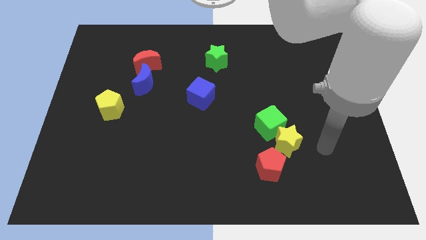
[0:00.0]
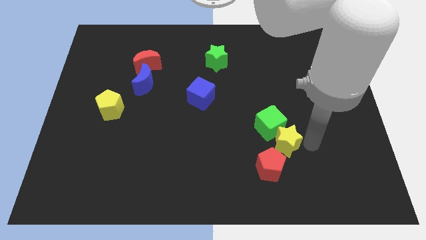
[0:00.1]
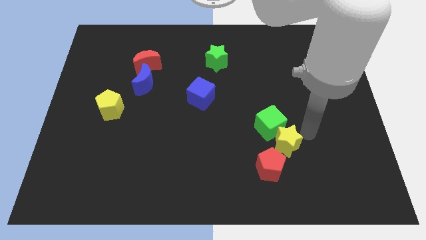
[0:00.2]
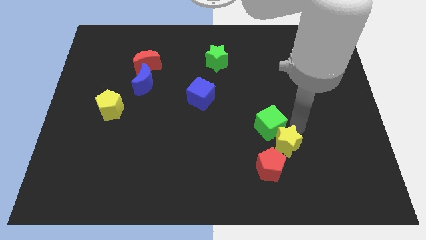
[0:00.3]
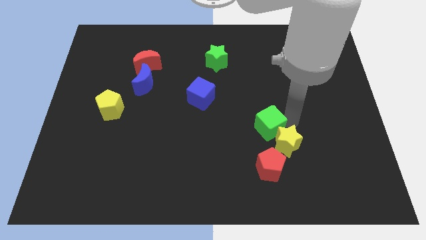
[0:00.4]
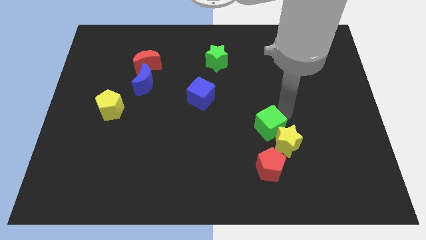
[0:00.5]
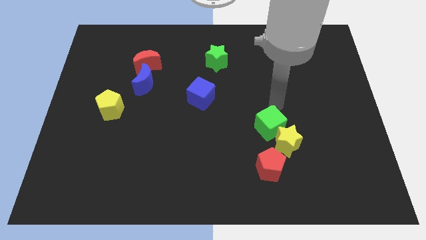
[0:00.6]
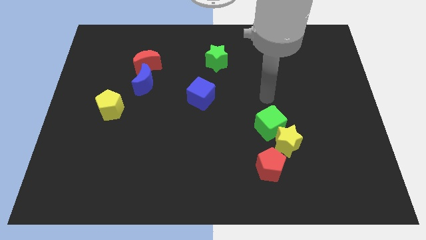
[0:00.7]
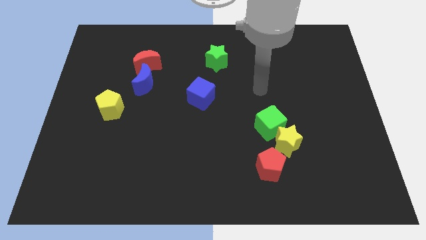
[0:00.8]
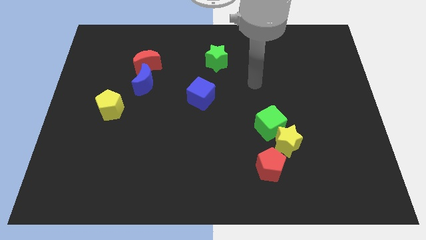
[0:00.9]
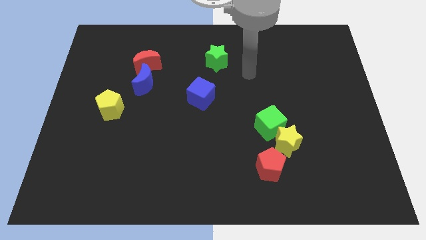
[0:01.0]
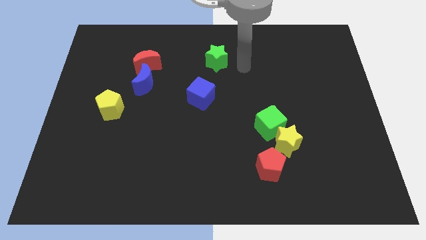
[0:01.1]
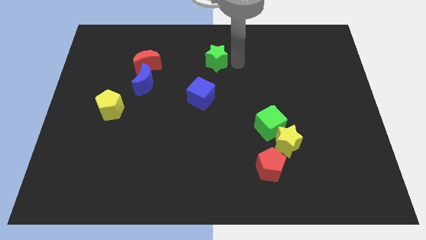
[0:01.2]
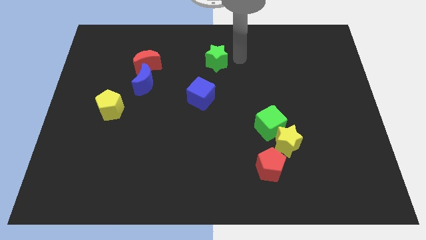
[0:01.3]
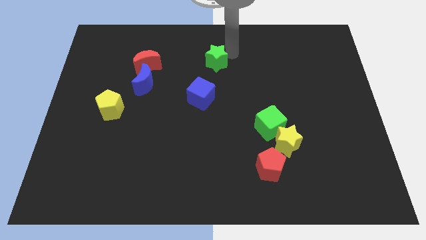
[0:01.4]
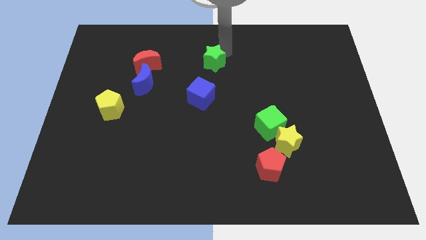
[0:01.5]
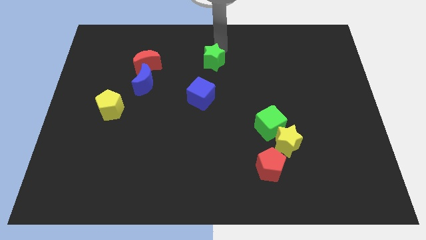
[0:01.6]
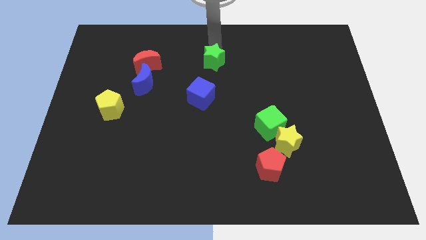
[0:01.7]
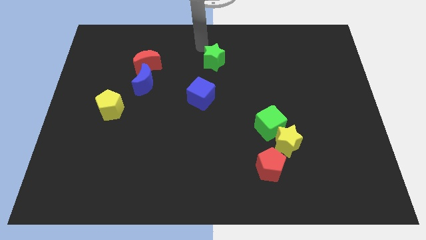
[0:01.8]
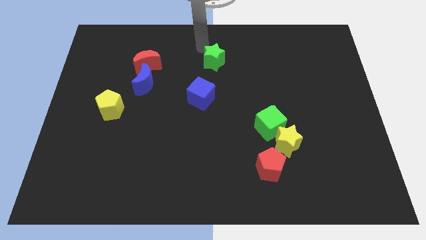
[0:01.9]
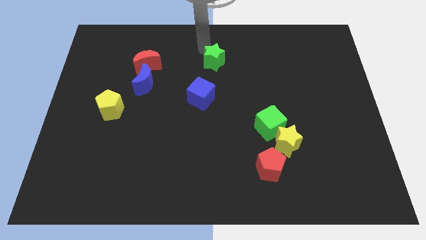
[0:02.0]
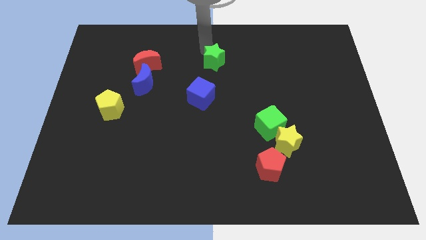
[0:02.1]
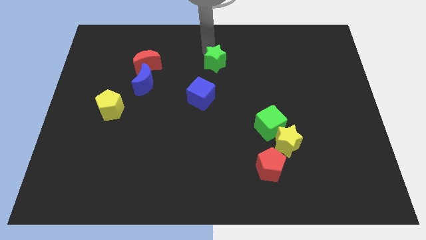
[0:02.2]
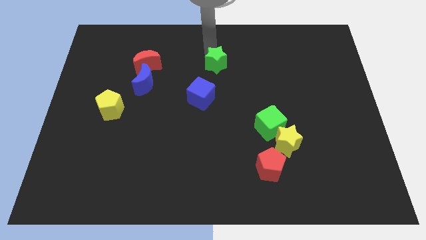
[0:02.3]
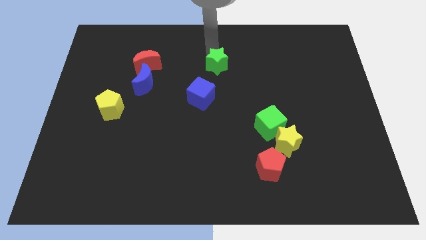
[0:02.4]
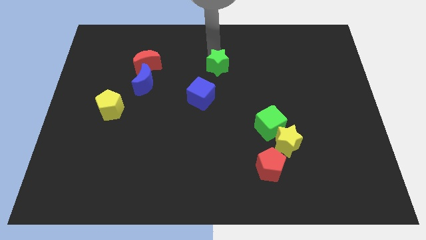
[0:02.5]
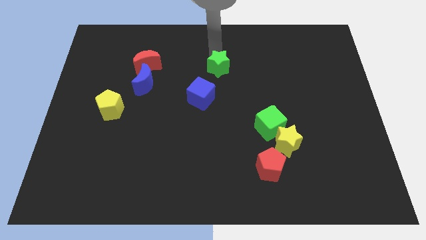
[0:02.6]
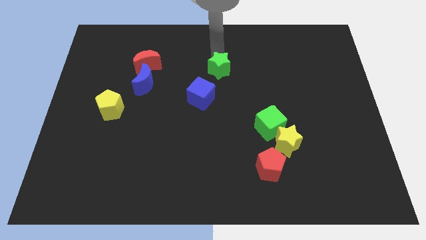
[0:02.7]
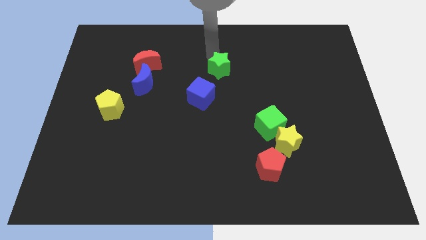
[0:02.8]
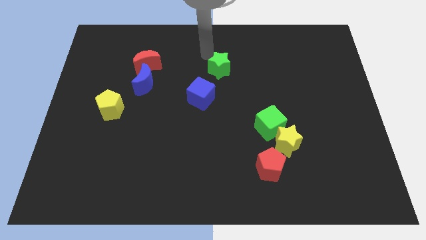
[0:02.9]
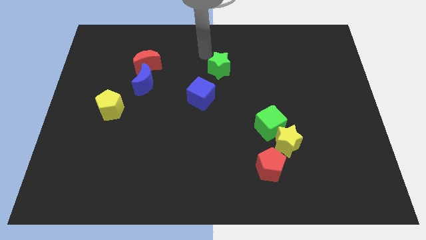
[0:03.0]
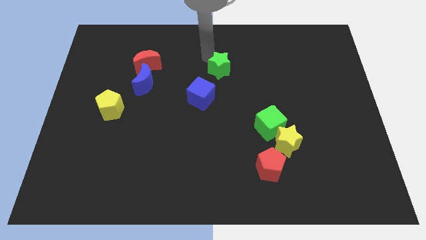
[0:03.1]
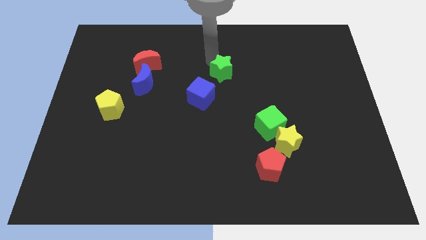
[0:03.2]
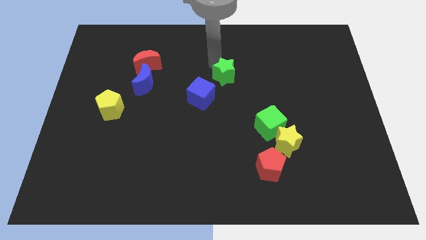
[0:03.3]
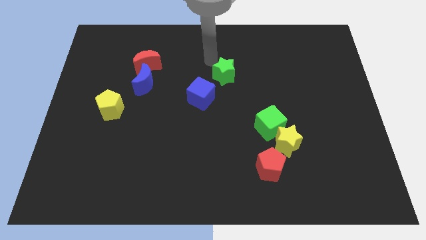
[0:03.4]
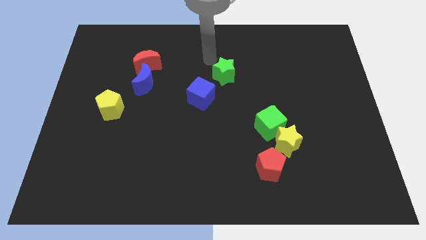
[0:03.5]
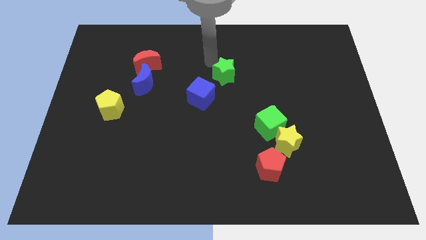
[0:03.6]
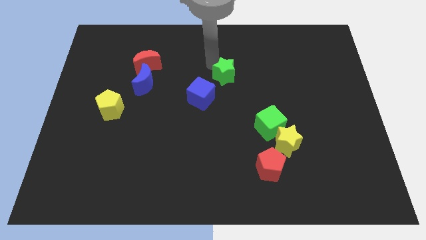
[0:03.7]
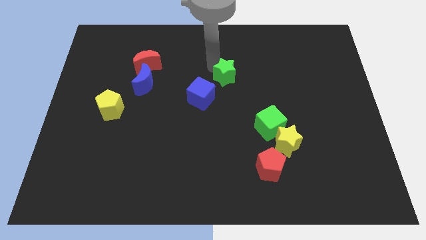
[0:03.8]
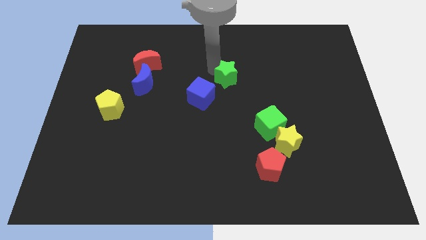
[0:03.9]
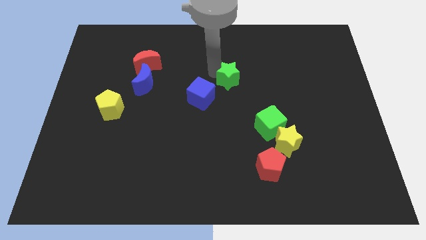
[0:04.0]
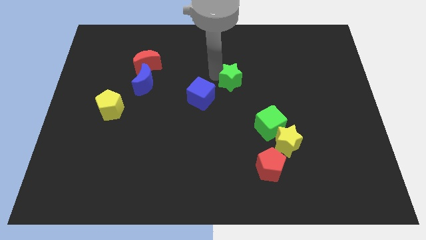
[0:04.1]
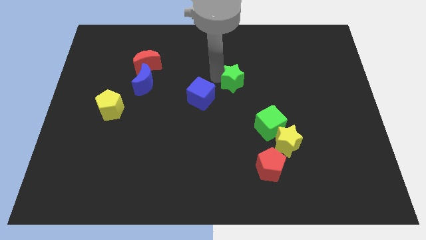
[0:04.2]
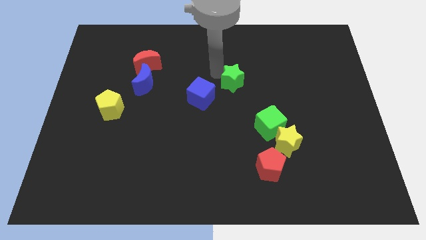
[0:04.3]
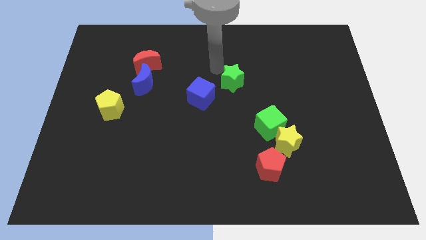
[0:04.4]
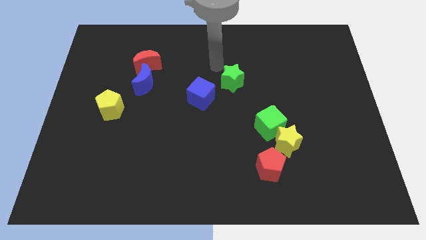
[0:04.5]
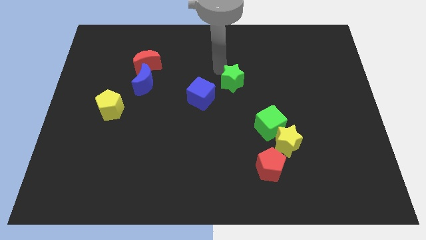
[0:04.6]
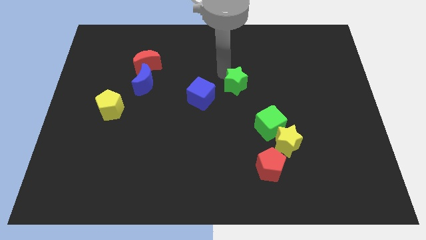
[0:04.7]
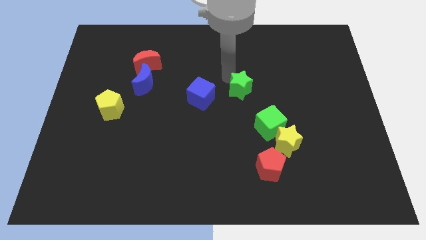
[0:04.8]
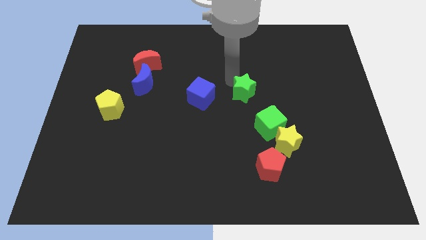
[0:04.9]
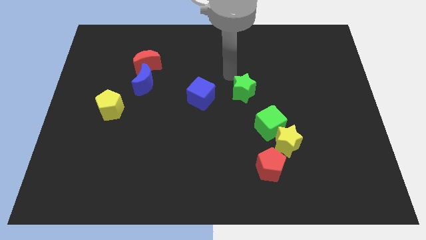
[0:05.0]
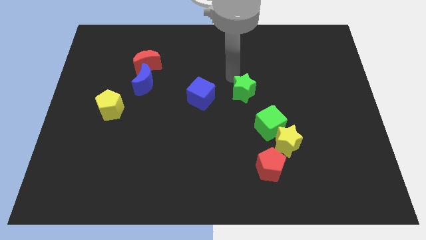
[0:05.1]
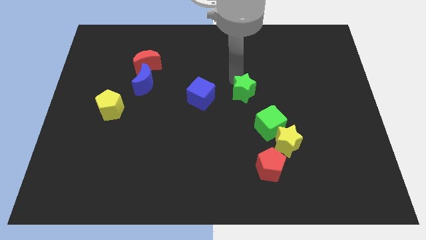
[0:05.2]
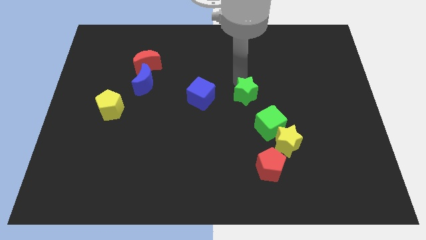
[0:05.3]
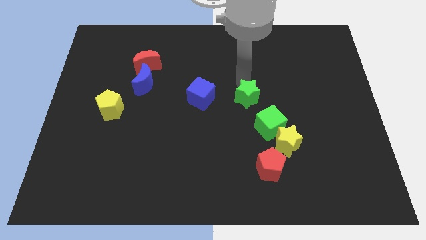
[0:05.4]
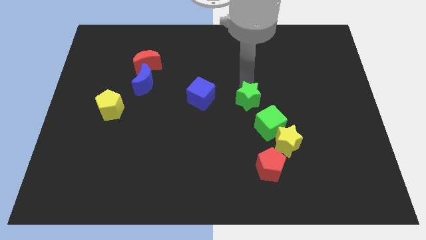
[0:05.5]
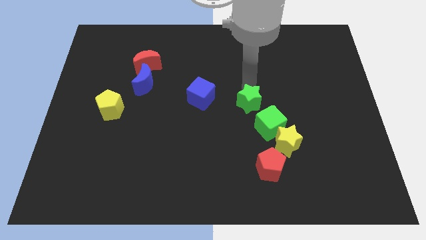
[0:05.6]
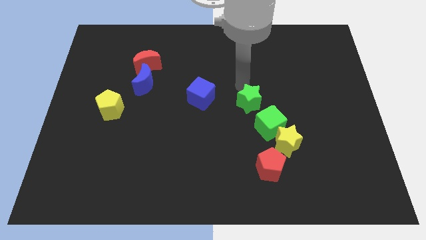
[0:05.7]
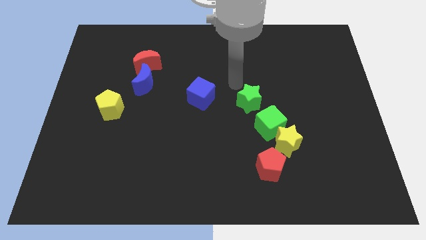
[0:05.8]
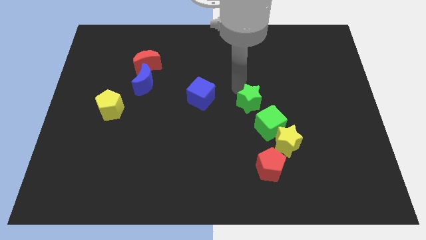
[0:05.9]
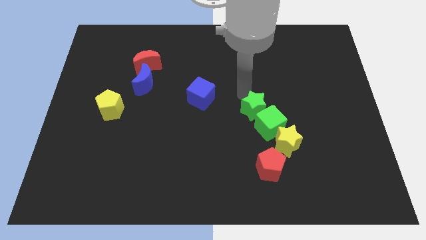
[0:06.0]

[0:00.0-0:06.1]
slide the green star towards the green cube
